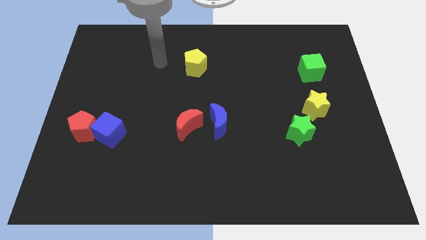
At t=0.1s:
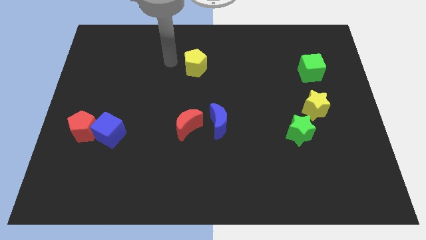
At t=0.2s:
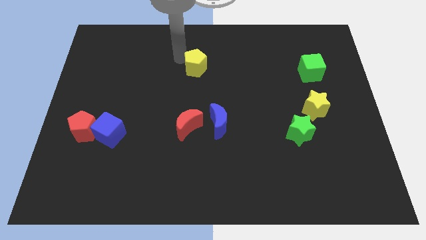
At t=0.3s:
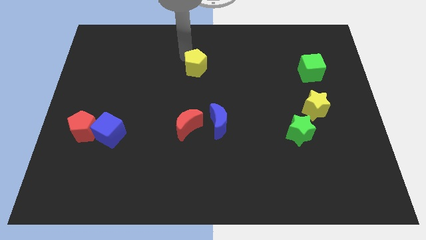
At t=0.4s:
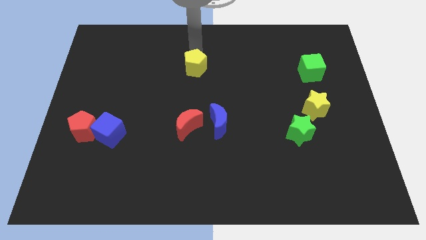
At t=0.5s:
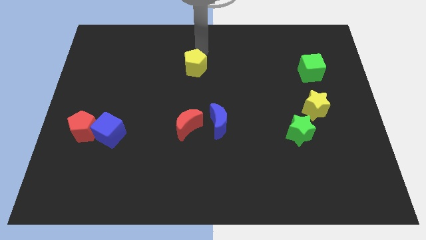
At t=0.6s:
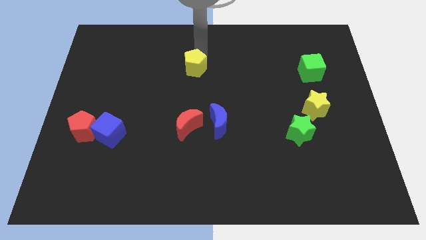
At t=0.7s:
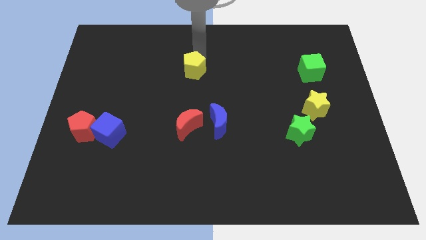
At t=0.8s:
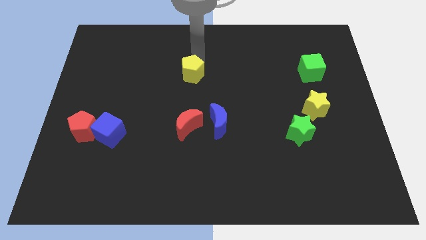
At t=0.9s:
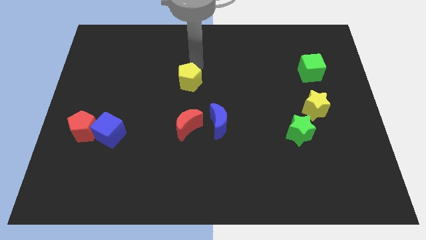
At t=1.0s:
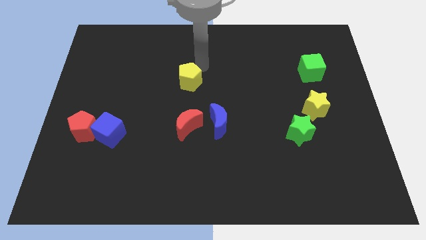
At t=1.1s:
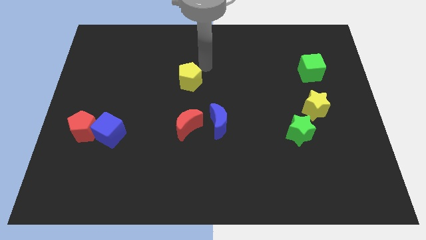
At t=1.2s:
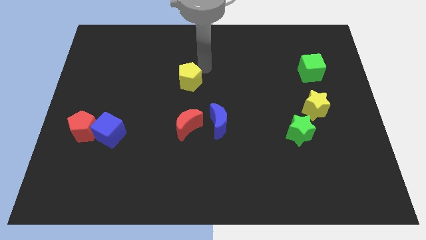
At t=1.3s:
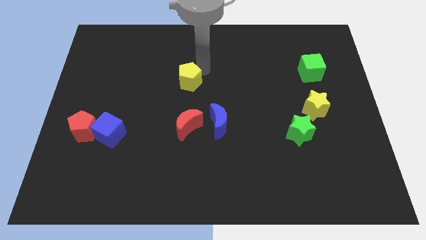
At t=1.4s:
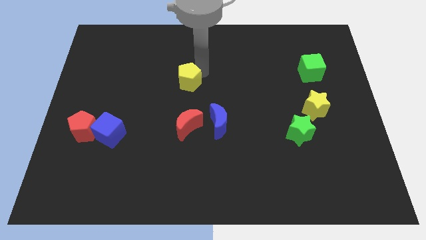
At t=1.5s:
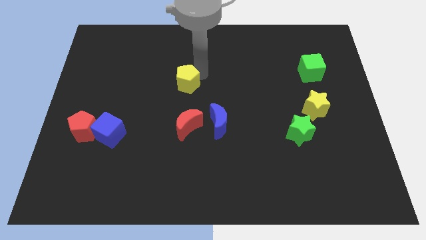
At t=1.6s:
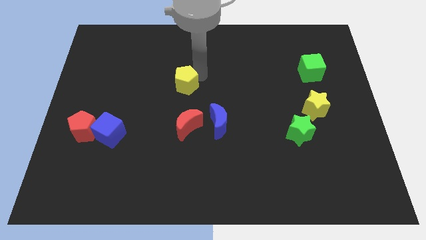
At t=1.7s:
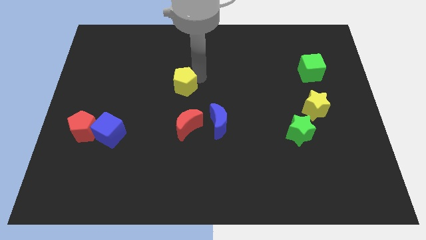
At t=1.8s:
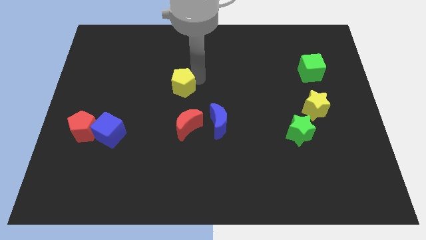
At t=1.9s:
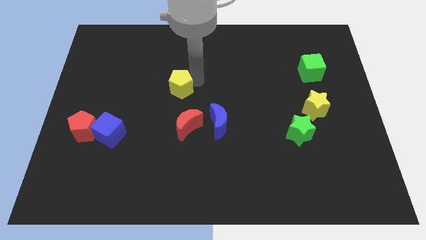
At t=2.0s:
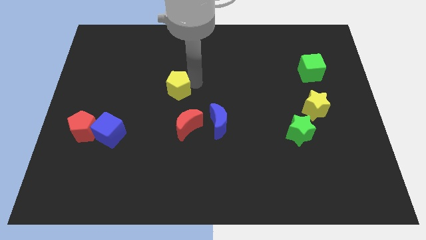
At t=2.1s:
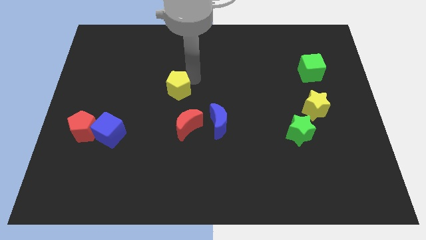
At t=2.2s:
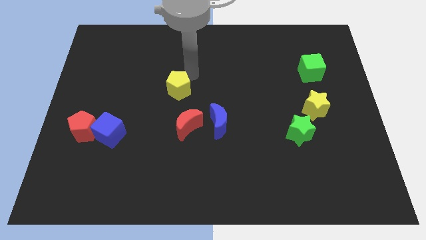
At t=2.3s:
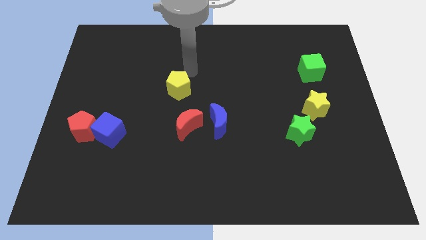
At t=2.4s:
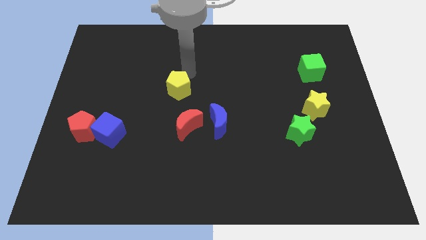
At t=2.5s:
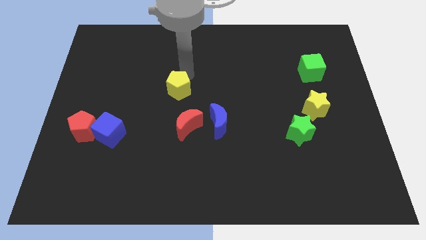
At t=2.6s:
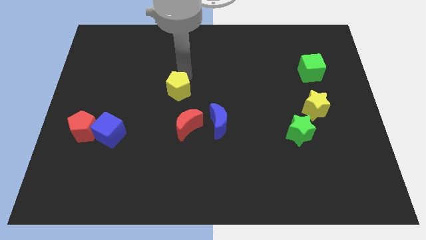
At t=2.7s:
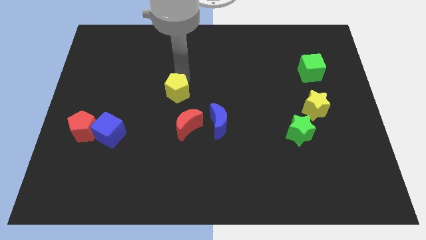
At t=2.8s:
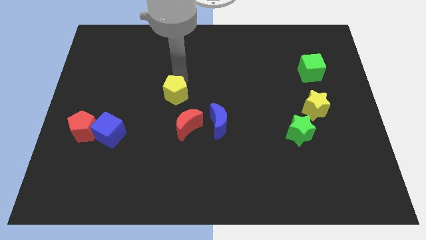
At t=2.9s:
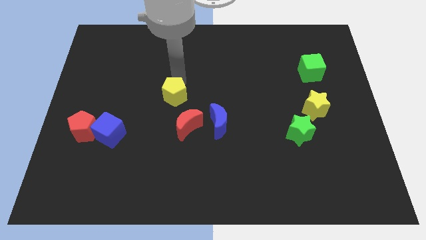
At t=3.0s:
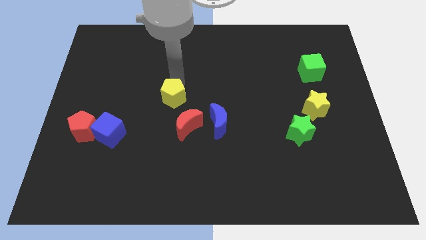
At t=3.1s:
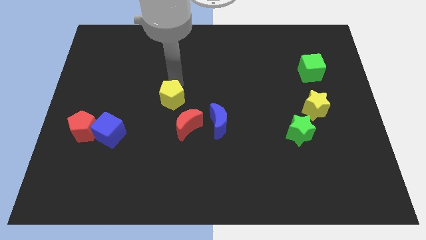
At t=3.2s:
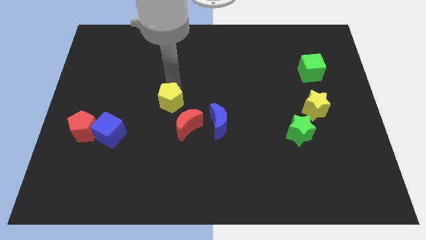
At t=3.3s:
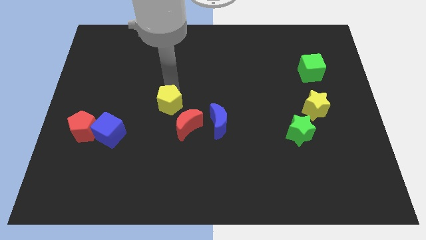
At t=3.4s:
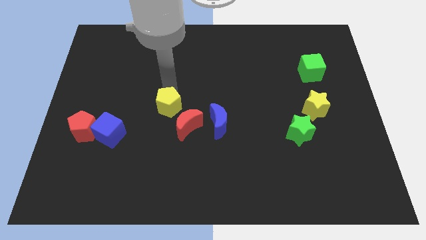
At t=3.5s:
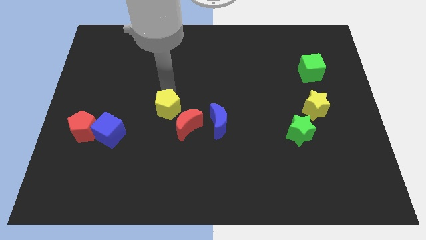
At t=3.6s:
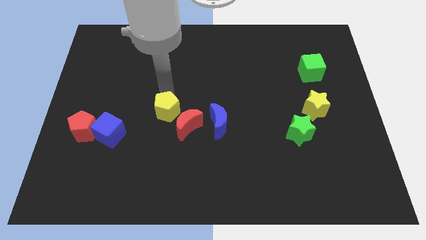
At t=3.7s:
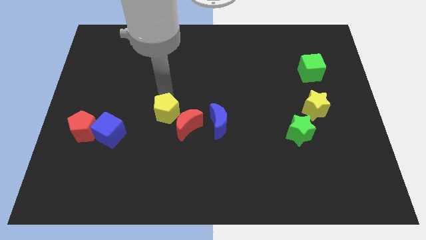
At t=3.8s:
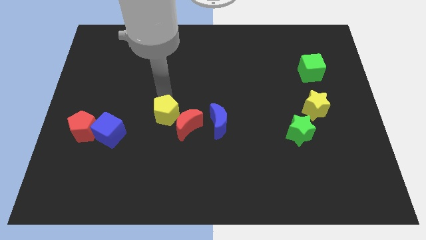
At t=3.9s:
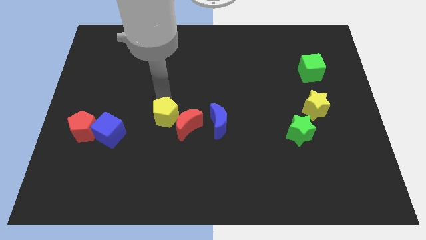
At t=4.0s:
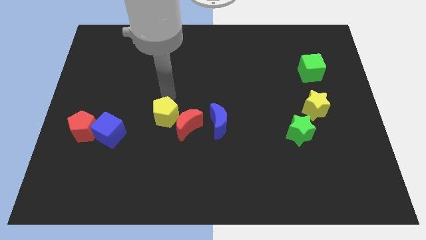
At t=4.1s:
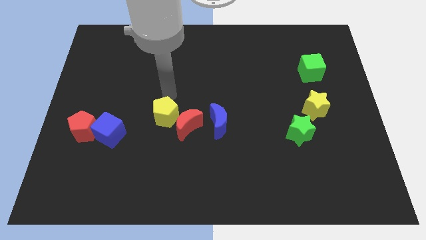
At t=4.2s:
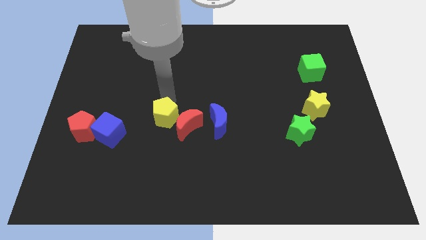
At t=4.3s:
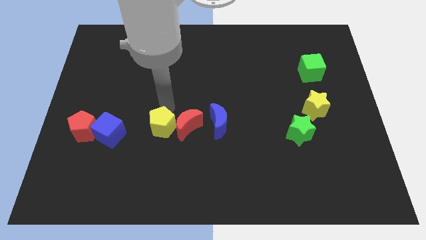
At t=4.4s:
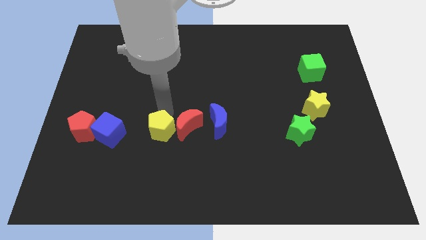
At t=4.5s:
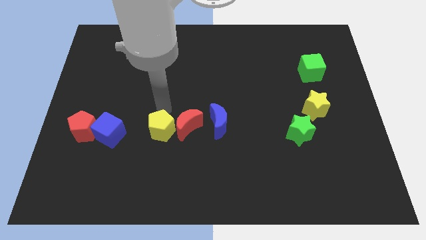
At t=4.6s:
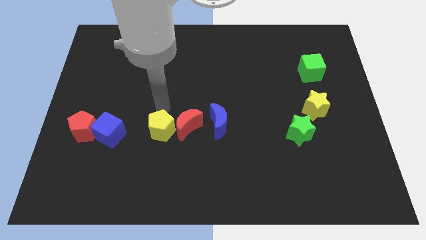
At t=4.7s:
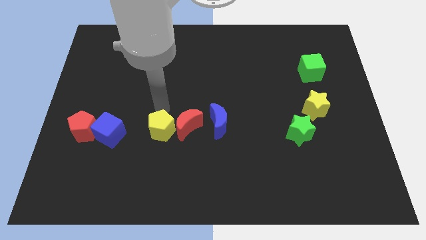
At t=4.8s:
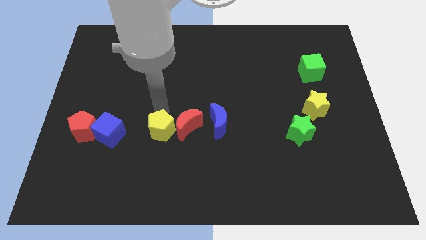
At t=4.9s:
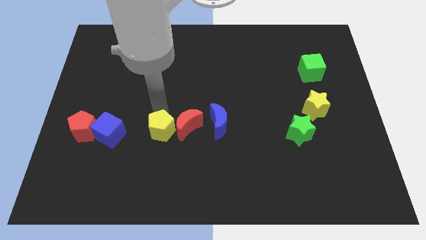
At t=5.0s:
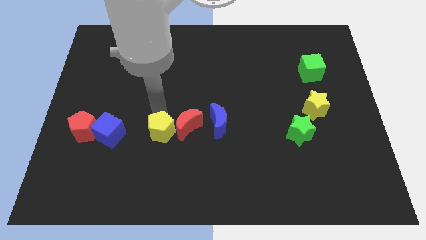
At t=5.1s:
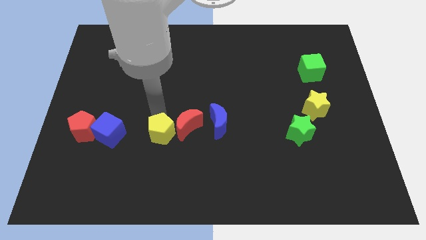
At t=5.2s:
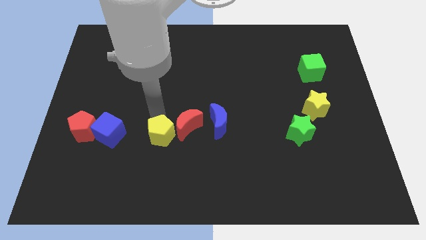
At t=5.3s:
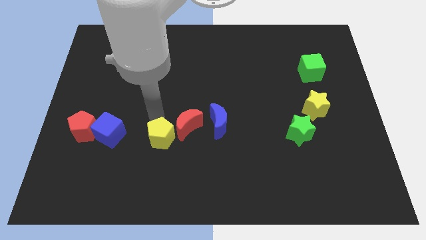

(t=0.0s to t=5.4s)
slide the yellow pentagon down

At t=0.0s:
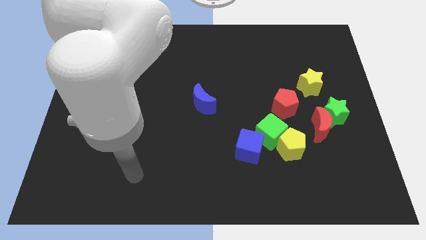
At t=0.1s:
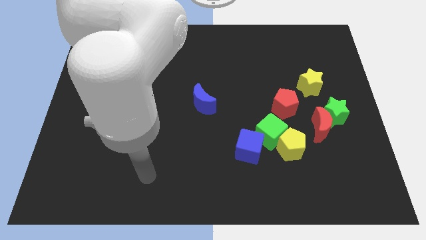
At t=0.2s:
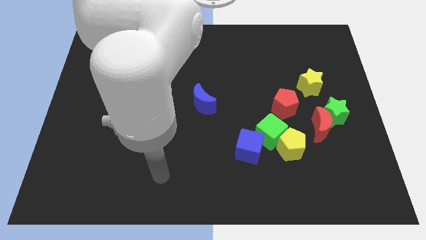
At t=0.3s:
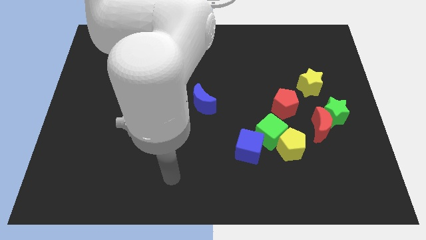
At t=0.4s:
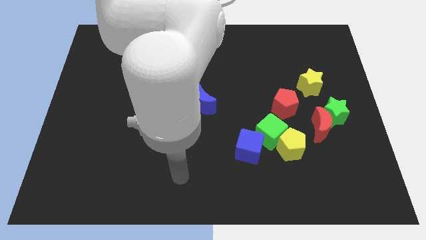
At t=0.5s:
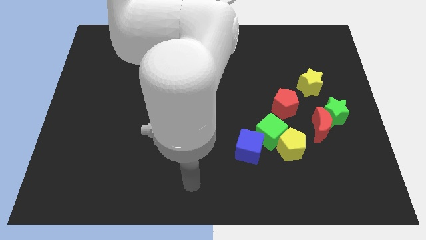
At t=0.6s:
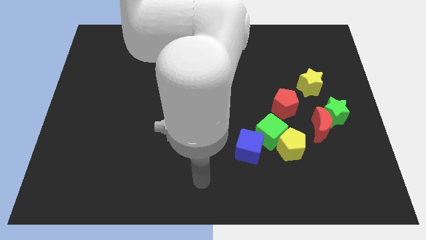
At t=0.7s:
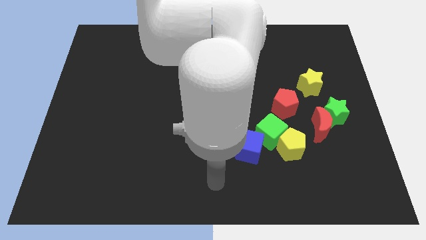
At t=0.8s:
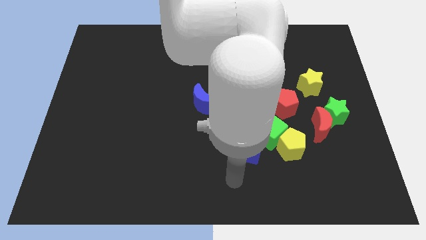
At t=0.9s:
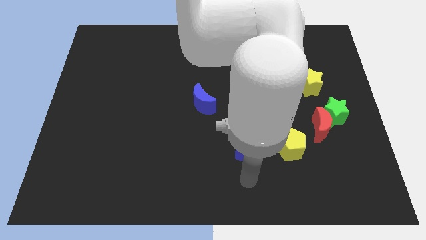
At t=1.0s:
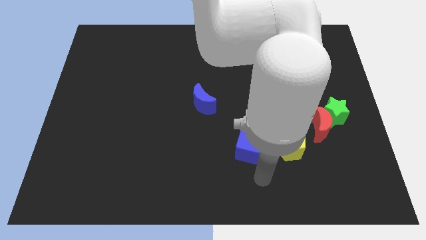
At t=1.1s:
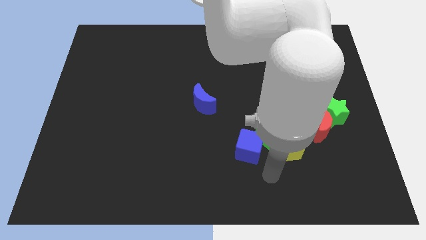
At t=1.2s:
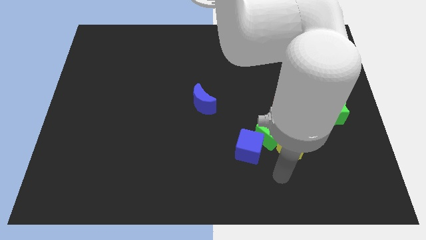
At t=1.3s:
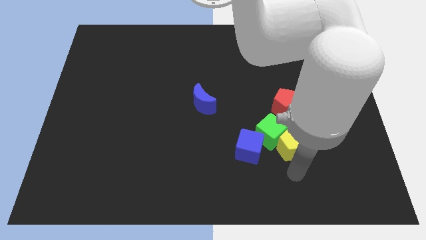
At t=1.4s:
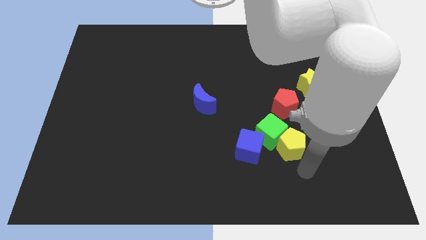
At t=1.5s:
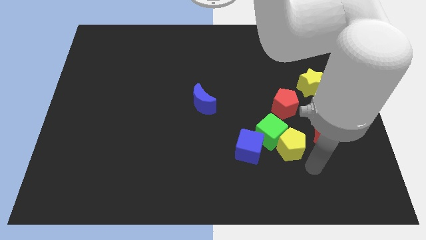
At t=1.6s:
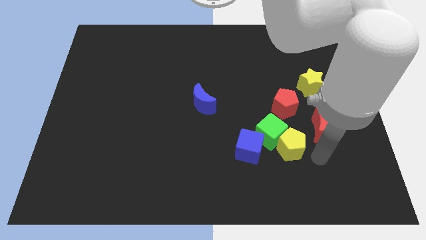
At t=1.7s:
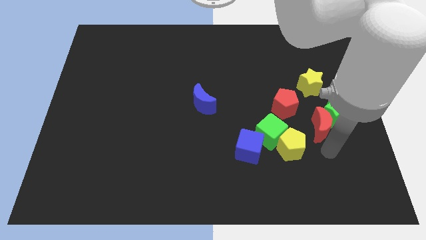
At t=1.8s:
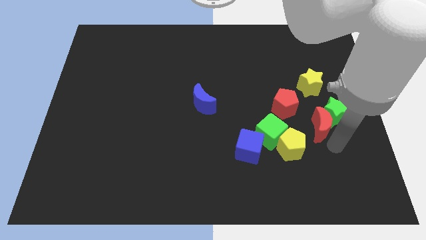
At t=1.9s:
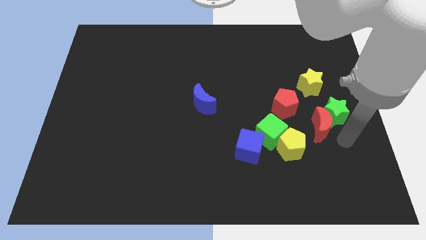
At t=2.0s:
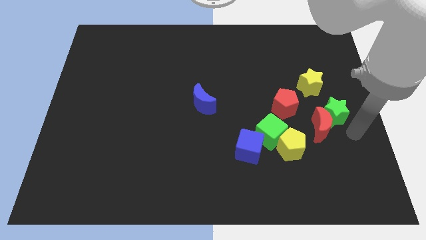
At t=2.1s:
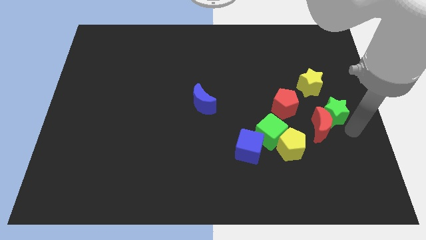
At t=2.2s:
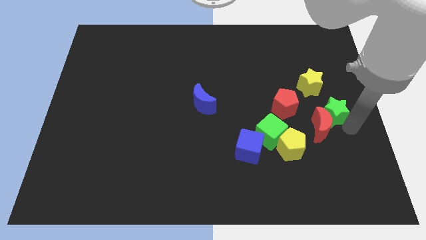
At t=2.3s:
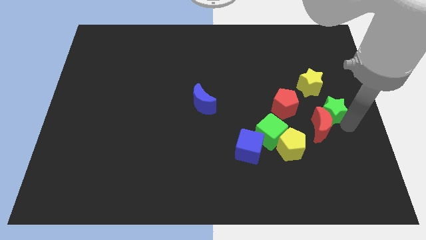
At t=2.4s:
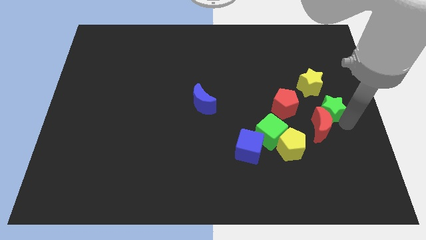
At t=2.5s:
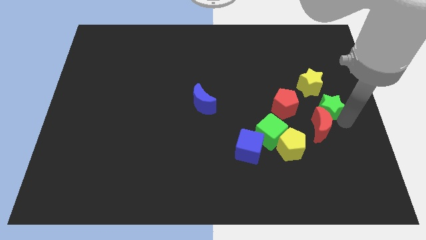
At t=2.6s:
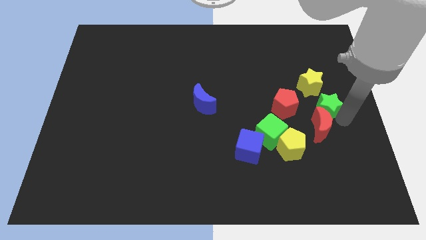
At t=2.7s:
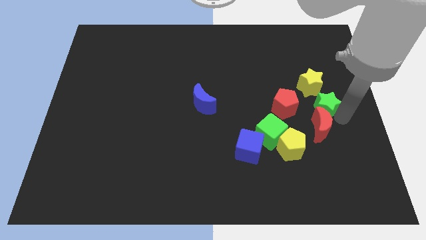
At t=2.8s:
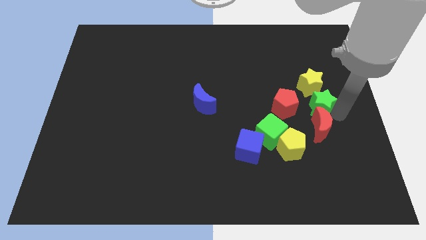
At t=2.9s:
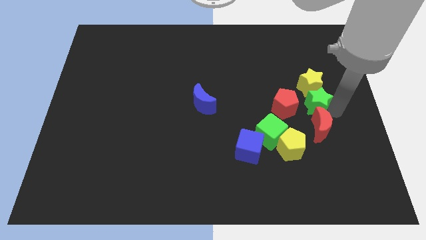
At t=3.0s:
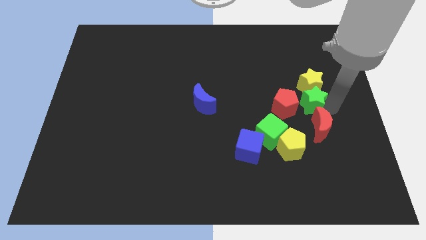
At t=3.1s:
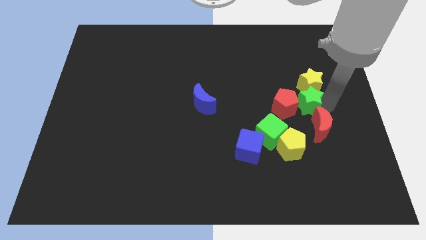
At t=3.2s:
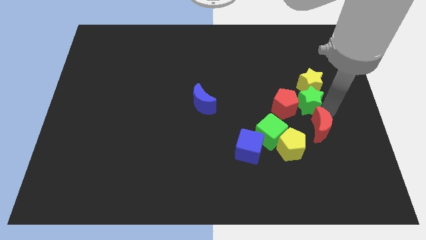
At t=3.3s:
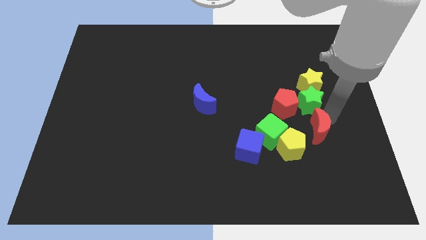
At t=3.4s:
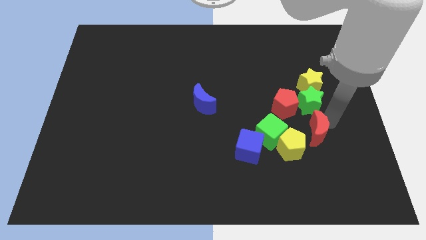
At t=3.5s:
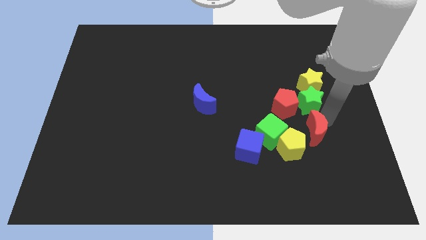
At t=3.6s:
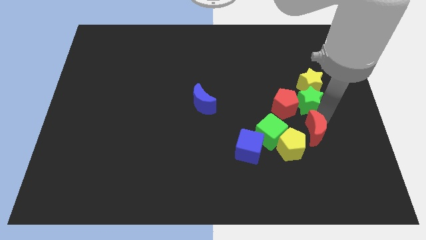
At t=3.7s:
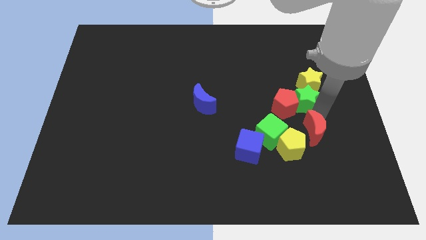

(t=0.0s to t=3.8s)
slide the green star a bit diagonally up and to the left
